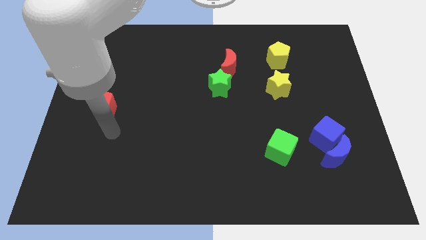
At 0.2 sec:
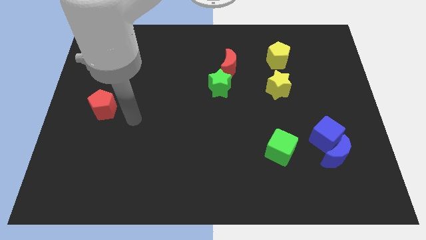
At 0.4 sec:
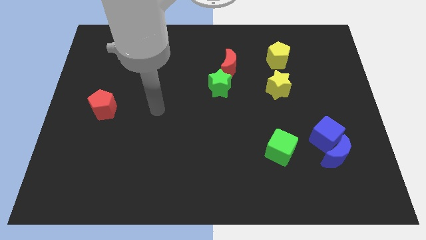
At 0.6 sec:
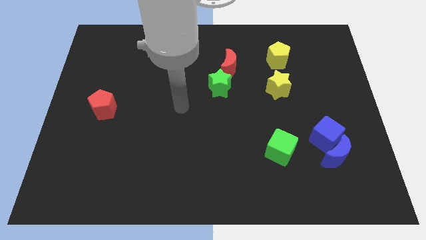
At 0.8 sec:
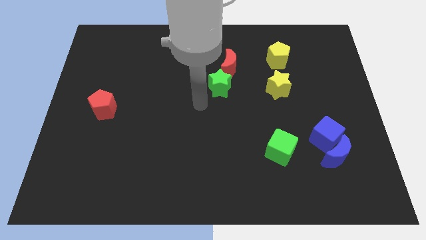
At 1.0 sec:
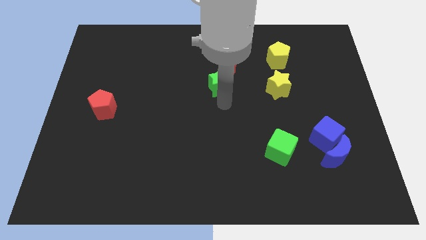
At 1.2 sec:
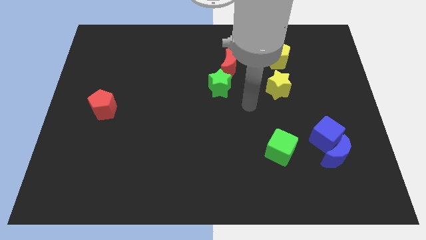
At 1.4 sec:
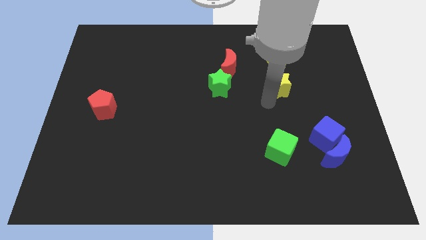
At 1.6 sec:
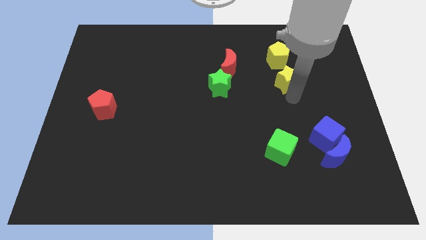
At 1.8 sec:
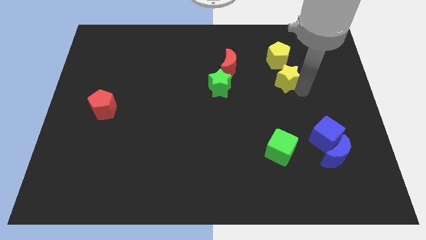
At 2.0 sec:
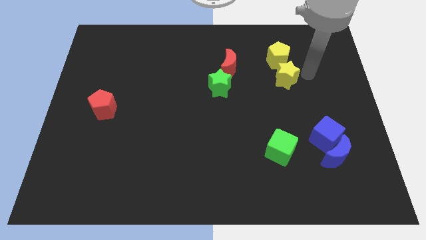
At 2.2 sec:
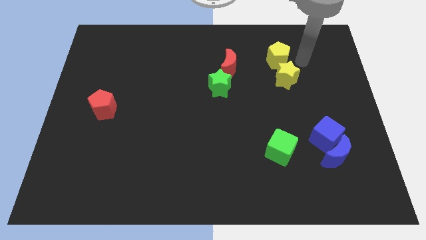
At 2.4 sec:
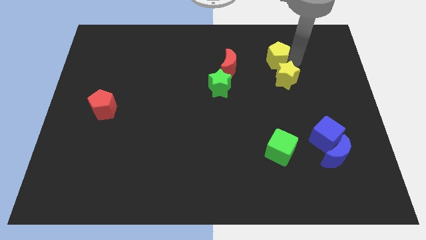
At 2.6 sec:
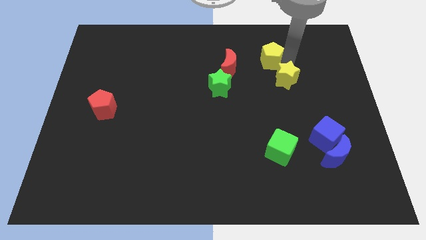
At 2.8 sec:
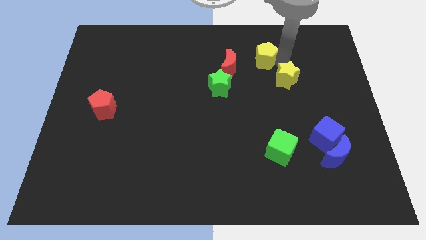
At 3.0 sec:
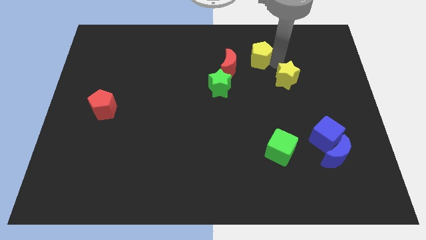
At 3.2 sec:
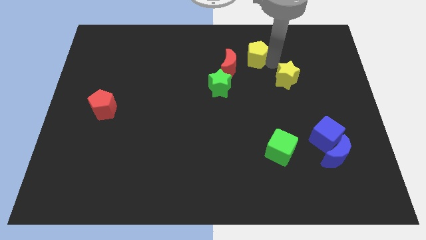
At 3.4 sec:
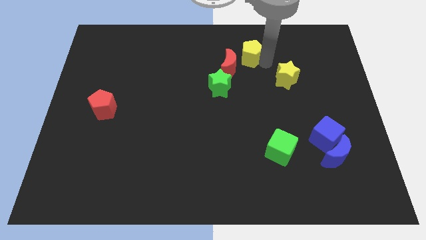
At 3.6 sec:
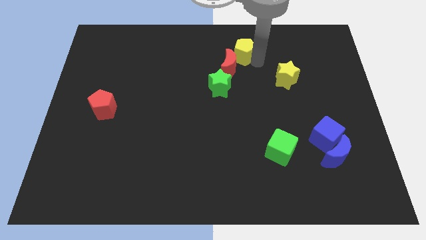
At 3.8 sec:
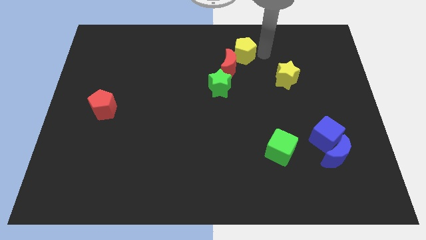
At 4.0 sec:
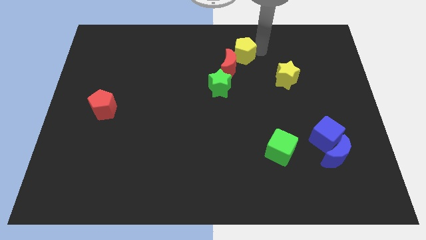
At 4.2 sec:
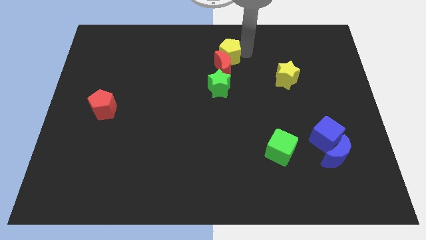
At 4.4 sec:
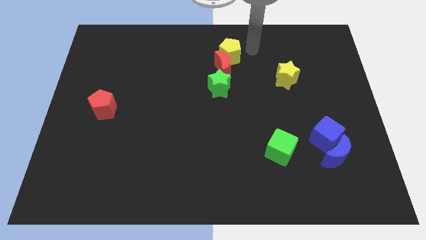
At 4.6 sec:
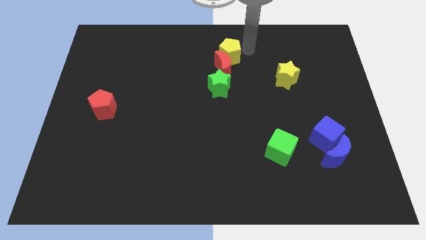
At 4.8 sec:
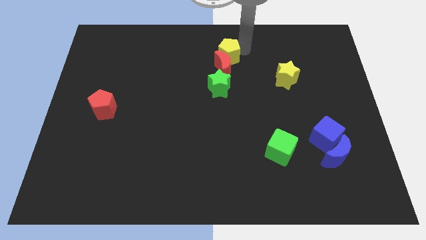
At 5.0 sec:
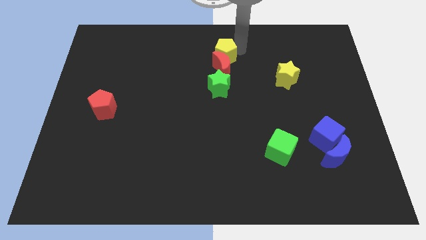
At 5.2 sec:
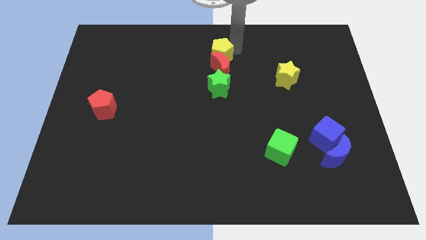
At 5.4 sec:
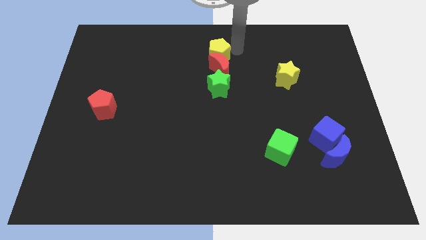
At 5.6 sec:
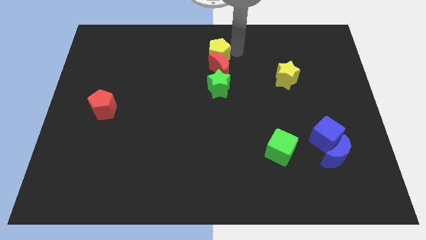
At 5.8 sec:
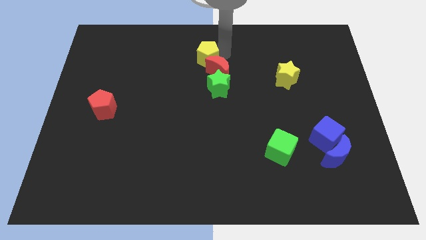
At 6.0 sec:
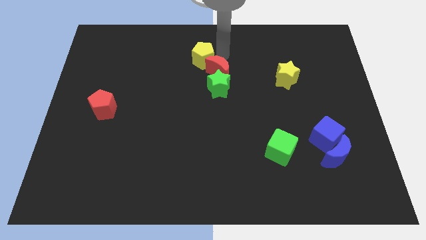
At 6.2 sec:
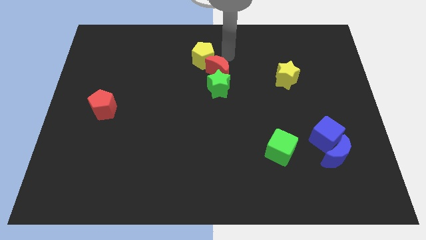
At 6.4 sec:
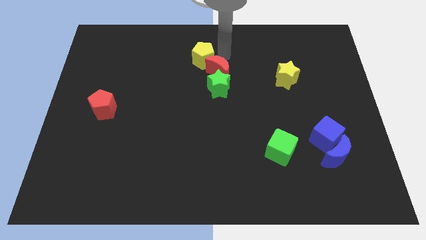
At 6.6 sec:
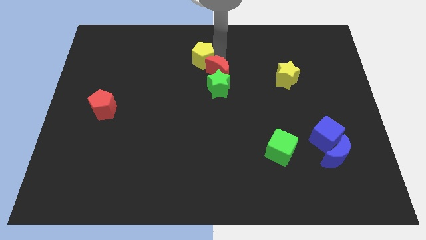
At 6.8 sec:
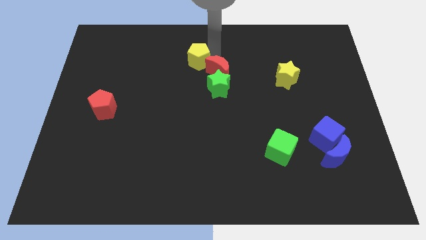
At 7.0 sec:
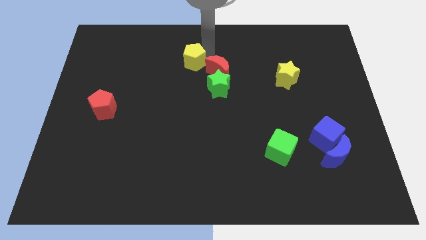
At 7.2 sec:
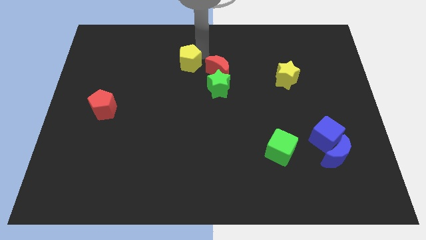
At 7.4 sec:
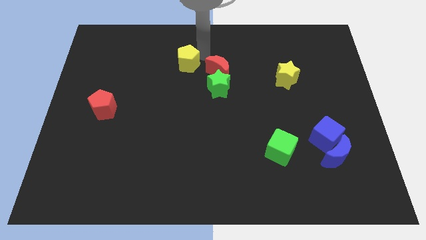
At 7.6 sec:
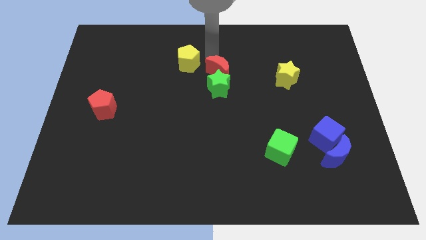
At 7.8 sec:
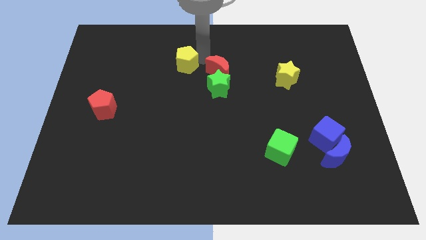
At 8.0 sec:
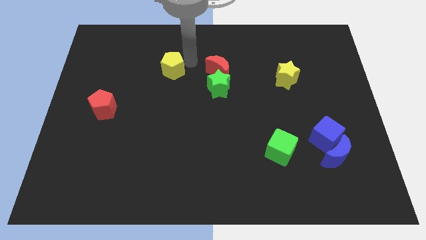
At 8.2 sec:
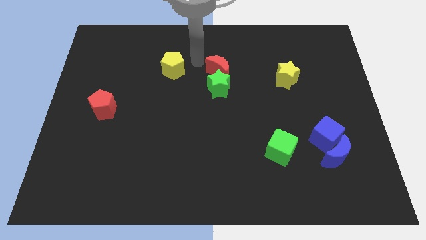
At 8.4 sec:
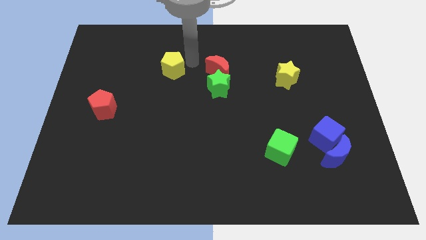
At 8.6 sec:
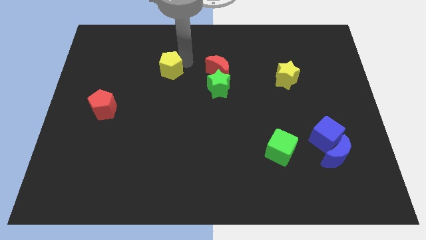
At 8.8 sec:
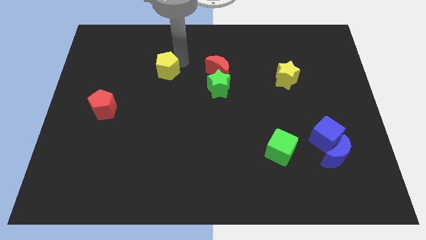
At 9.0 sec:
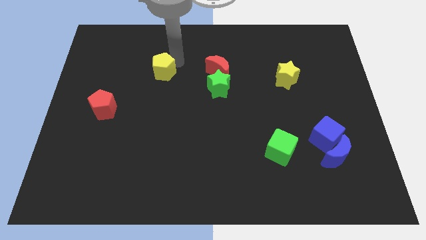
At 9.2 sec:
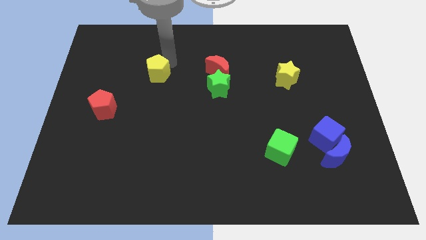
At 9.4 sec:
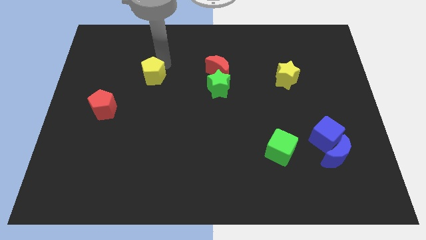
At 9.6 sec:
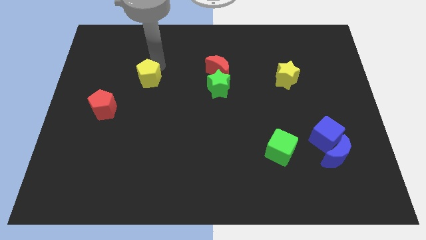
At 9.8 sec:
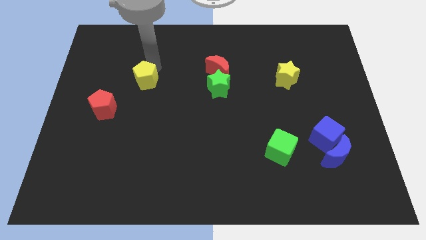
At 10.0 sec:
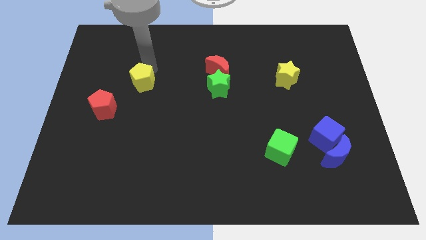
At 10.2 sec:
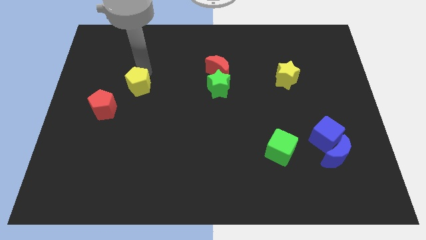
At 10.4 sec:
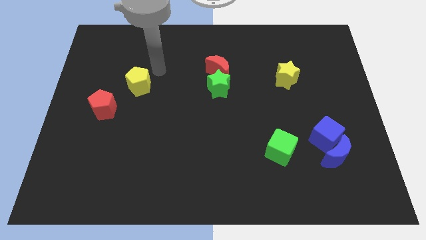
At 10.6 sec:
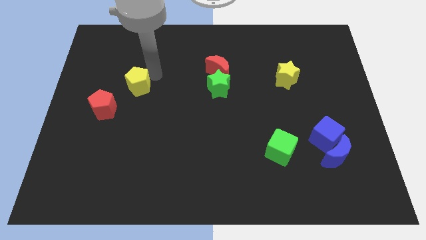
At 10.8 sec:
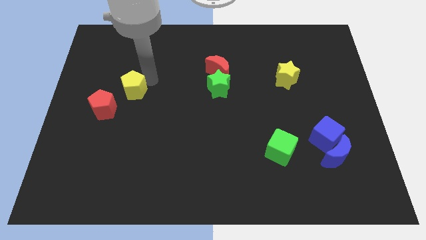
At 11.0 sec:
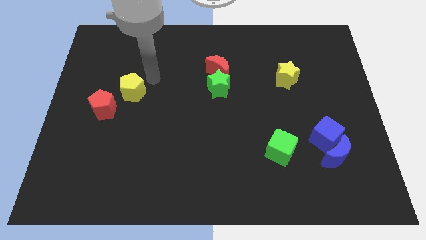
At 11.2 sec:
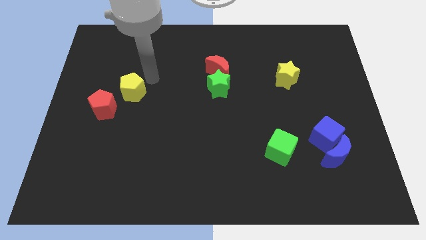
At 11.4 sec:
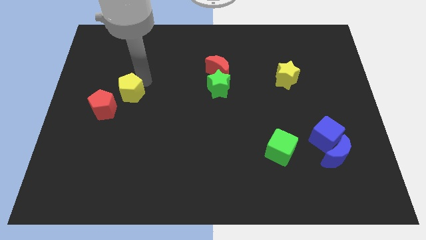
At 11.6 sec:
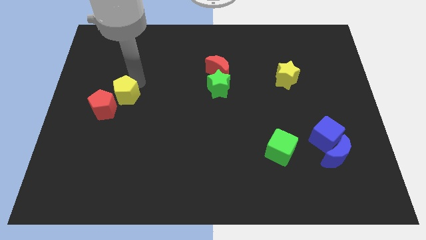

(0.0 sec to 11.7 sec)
push the yellow pentagon to the red pentagon

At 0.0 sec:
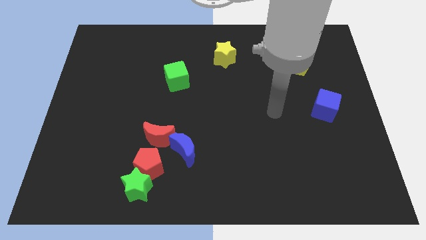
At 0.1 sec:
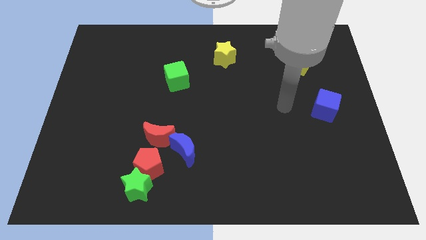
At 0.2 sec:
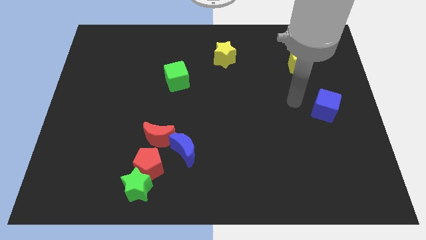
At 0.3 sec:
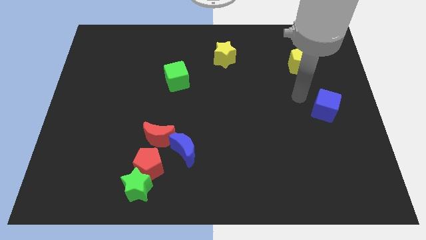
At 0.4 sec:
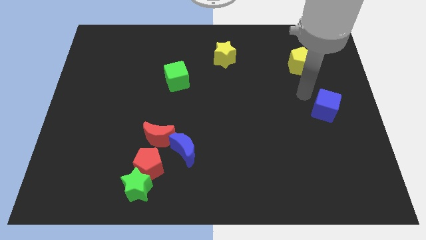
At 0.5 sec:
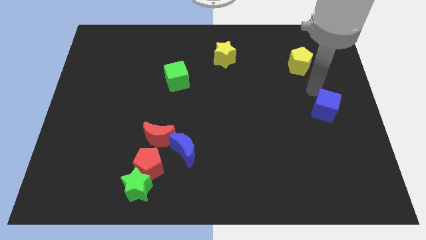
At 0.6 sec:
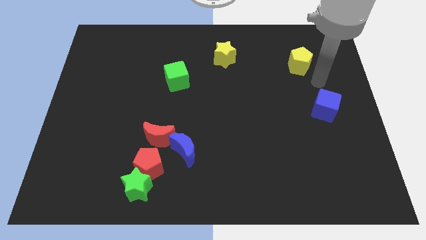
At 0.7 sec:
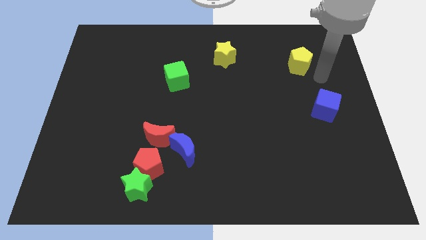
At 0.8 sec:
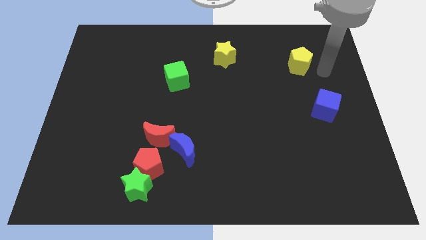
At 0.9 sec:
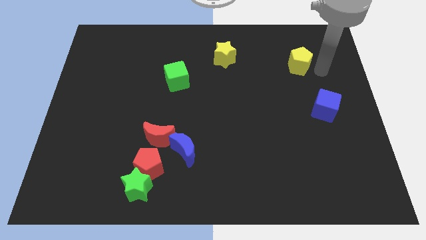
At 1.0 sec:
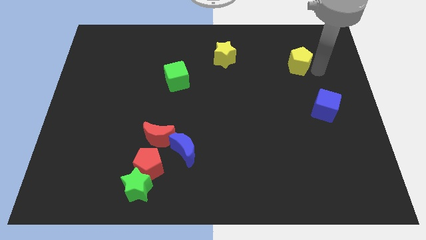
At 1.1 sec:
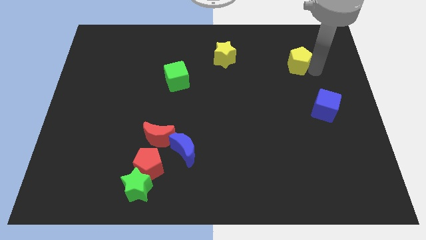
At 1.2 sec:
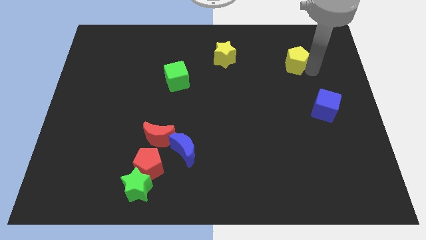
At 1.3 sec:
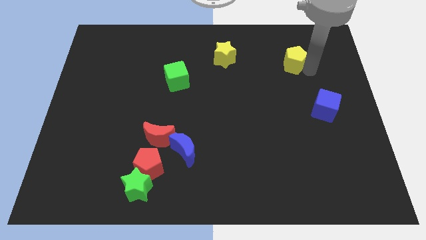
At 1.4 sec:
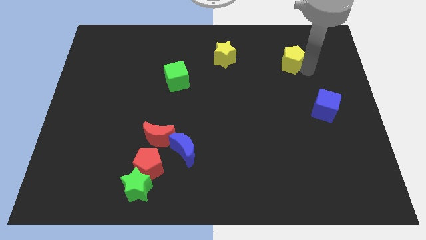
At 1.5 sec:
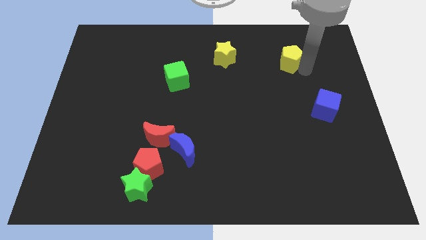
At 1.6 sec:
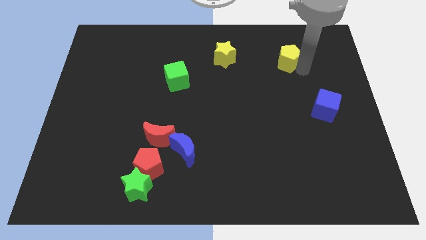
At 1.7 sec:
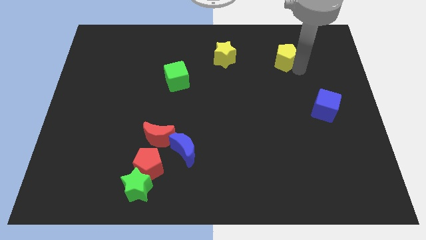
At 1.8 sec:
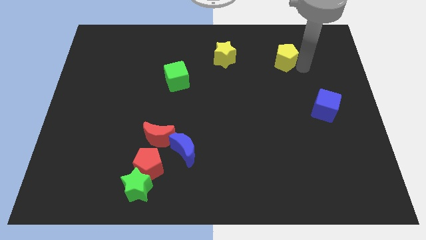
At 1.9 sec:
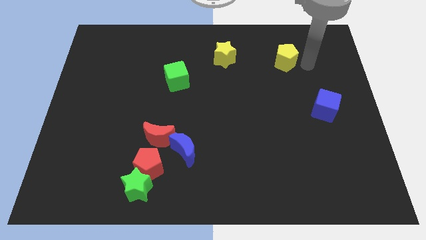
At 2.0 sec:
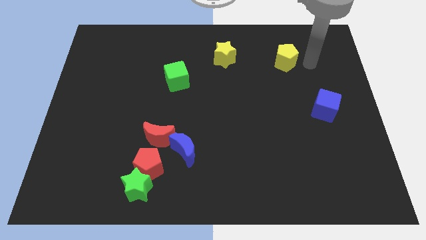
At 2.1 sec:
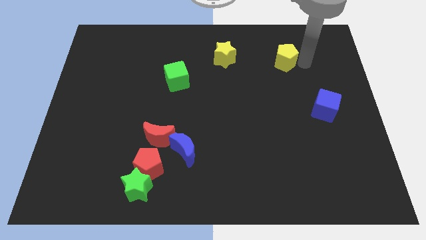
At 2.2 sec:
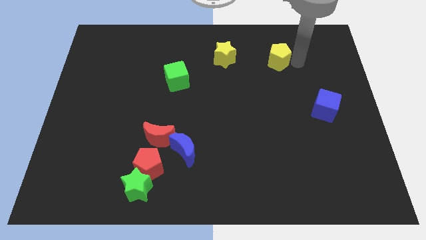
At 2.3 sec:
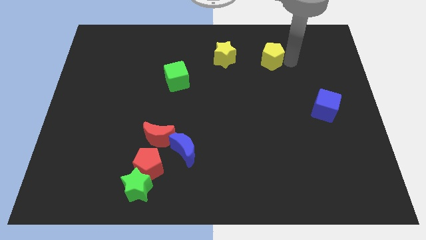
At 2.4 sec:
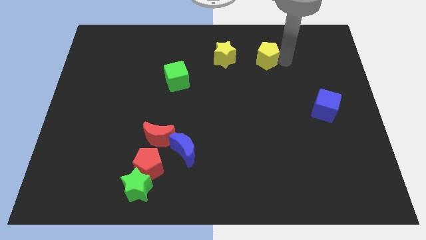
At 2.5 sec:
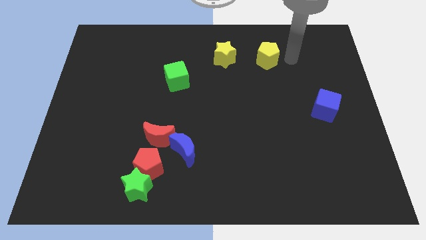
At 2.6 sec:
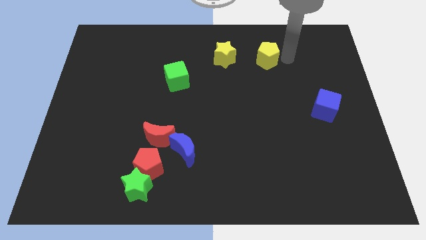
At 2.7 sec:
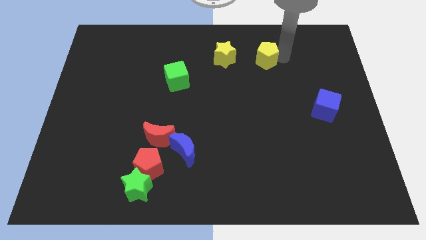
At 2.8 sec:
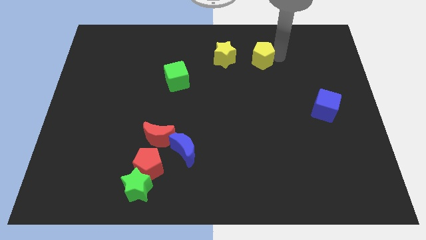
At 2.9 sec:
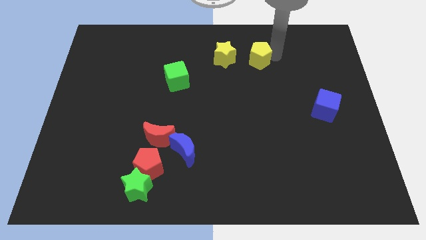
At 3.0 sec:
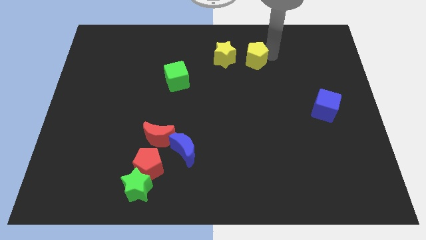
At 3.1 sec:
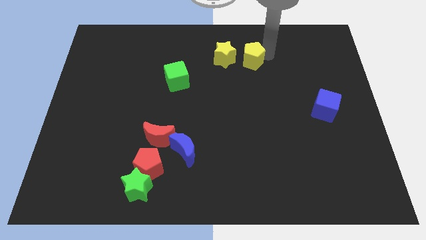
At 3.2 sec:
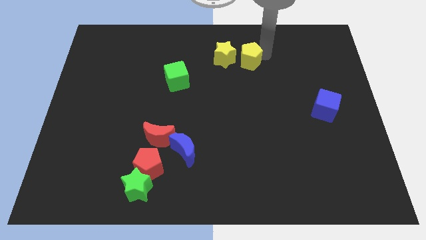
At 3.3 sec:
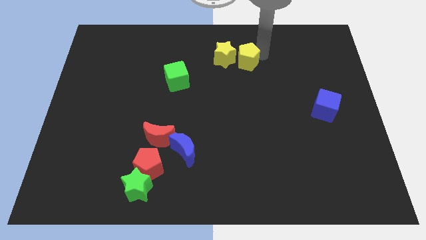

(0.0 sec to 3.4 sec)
slide the yellow pentagon towards the yellow star
